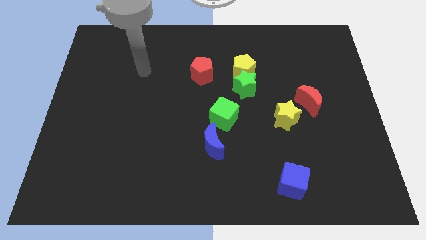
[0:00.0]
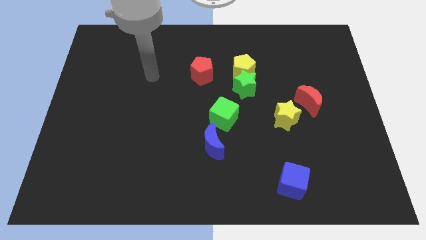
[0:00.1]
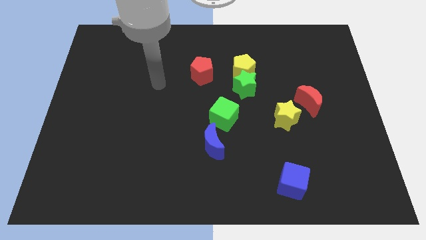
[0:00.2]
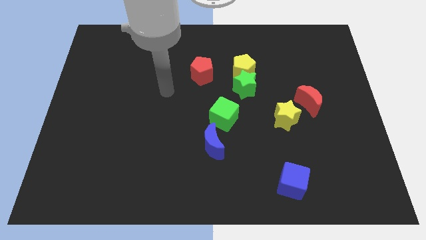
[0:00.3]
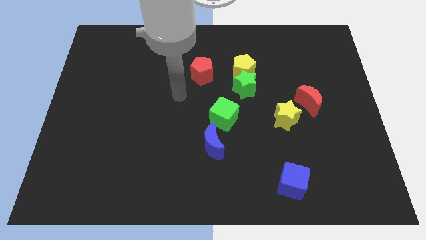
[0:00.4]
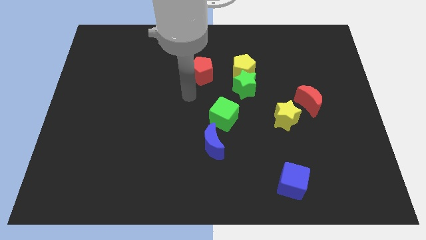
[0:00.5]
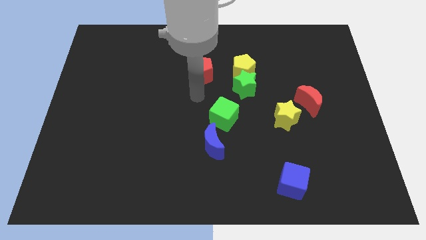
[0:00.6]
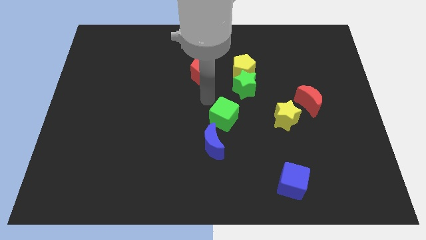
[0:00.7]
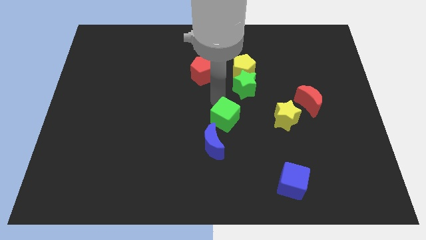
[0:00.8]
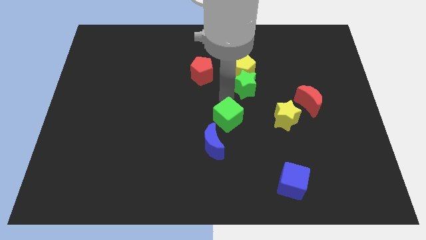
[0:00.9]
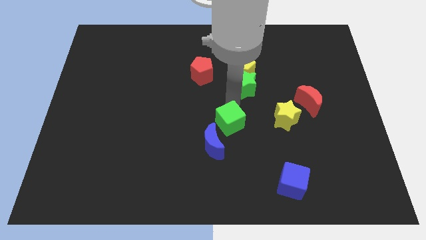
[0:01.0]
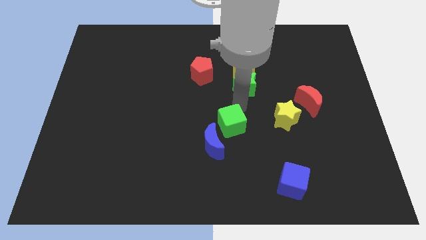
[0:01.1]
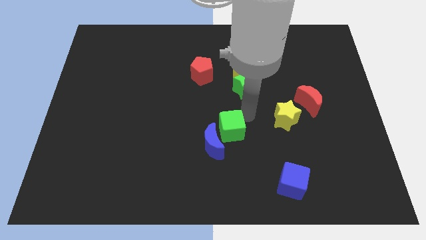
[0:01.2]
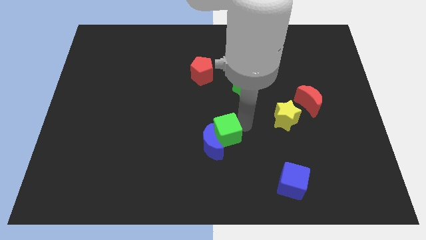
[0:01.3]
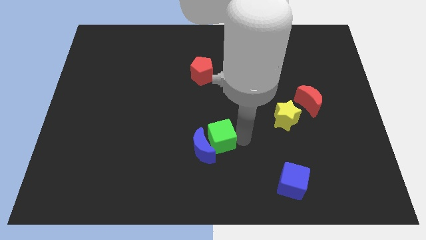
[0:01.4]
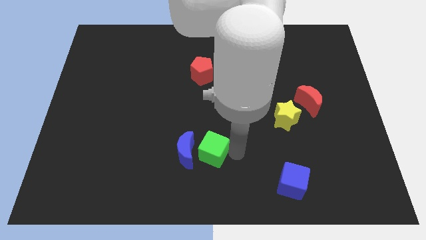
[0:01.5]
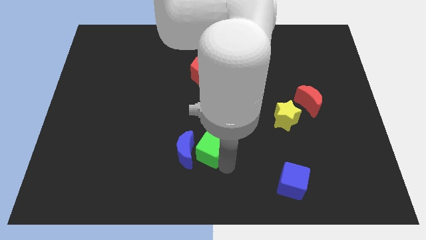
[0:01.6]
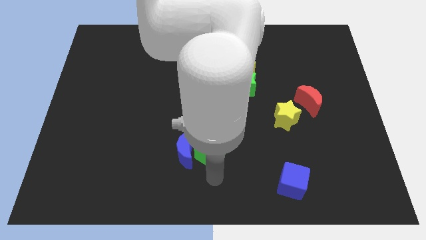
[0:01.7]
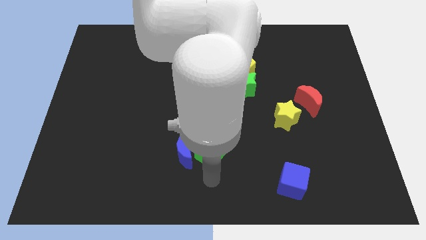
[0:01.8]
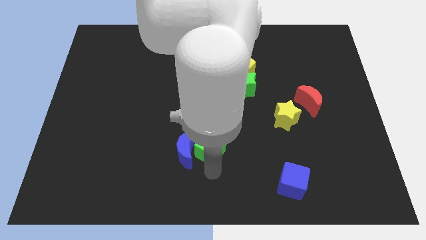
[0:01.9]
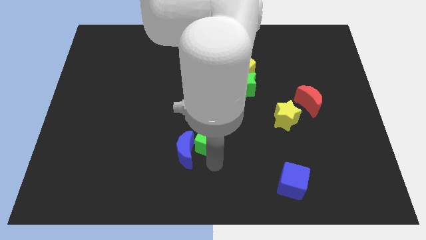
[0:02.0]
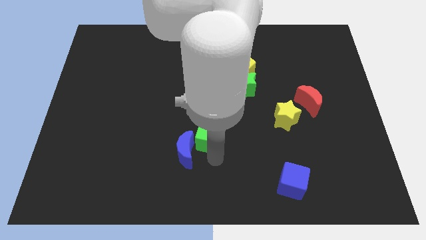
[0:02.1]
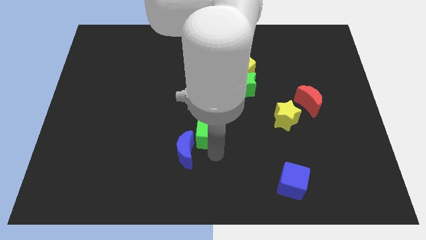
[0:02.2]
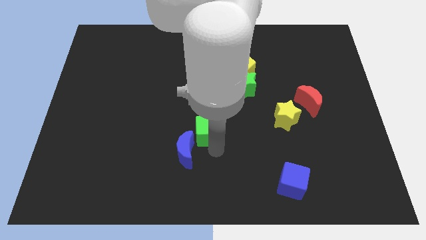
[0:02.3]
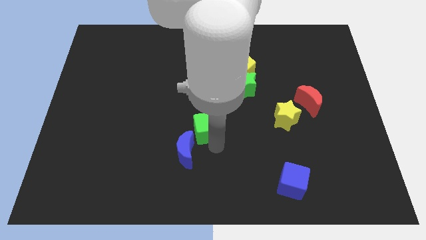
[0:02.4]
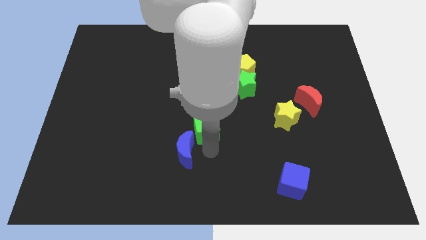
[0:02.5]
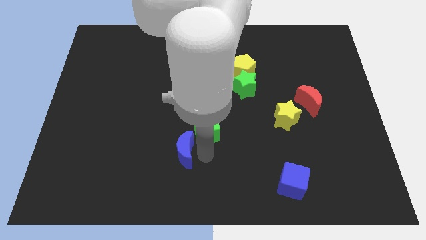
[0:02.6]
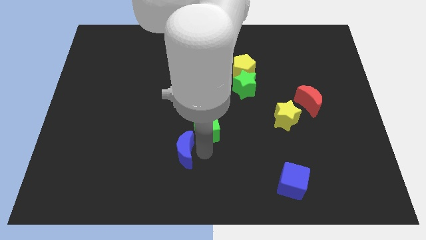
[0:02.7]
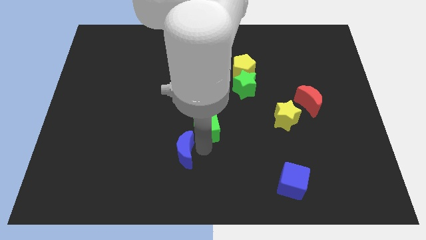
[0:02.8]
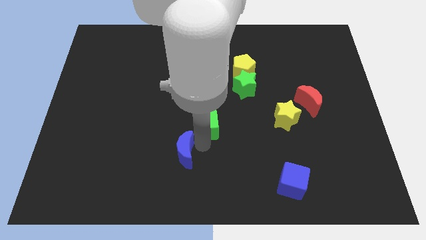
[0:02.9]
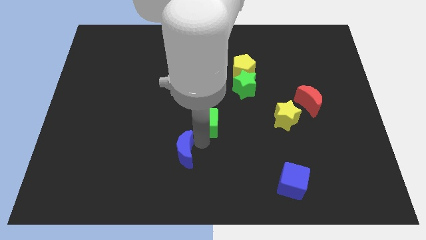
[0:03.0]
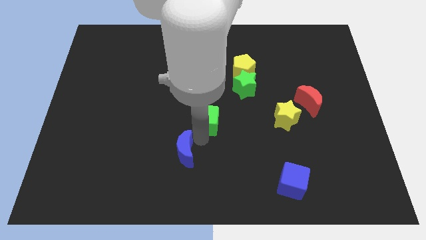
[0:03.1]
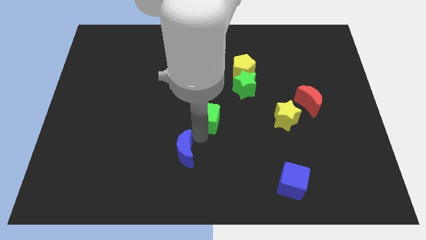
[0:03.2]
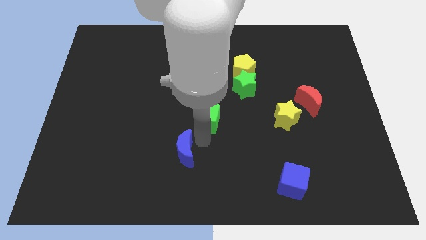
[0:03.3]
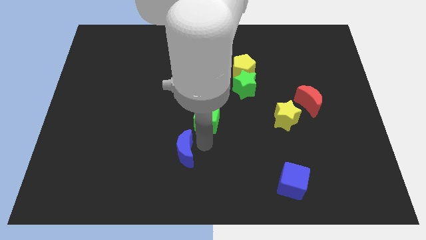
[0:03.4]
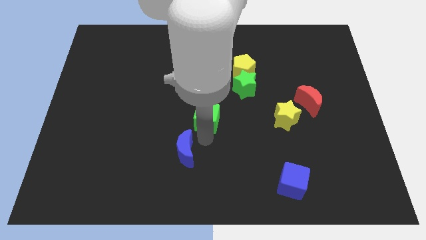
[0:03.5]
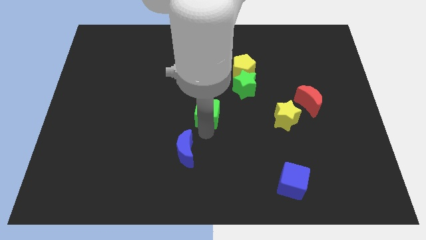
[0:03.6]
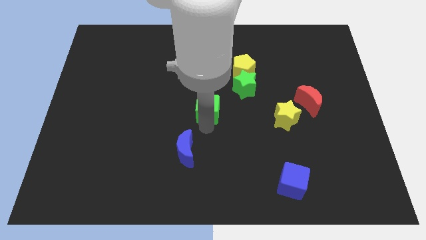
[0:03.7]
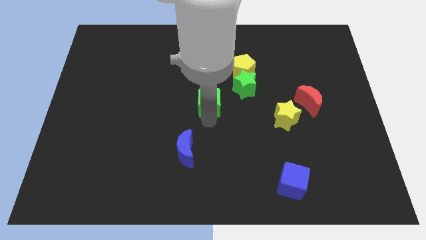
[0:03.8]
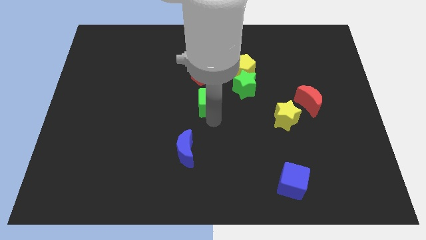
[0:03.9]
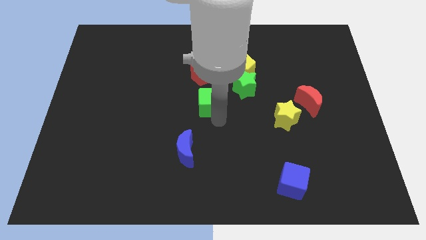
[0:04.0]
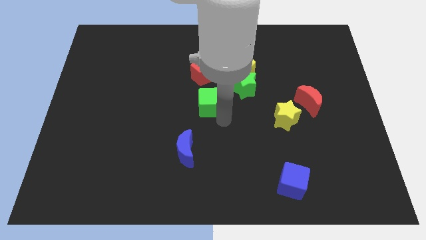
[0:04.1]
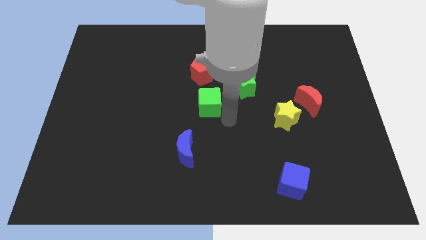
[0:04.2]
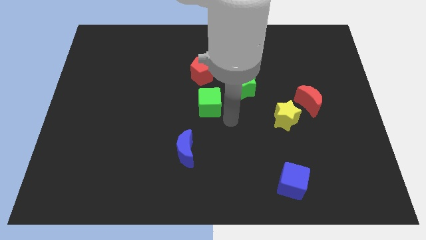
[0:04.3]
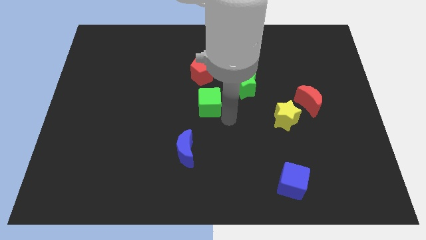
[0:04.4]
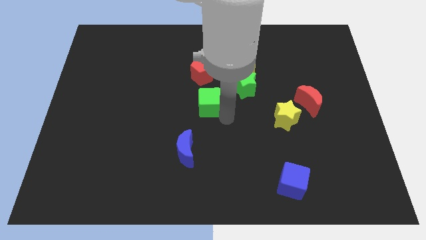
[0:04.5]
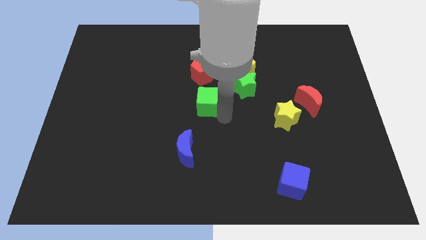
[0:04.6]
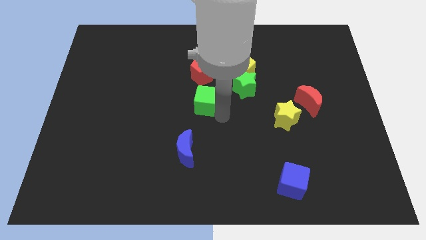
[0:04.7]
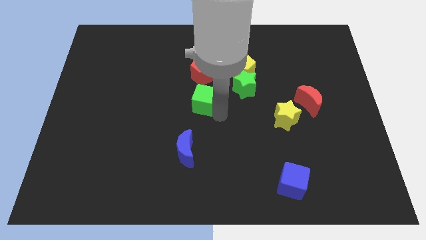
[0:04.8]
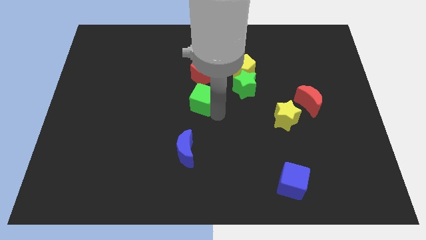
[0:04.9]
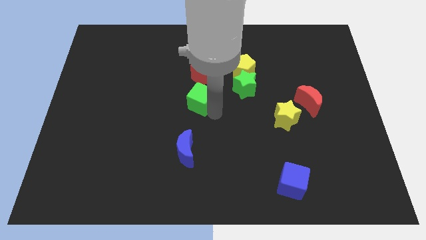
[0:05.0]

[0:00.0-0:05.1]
slide the green cube a little bit diagonally upwards and to the left

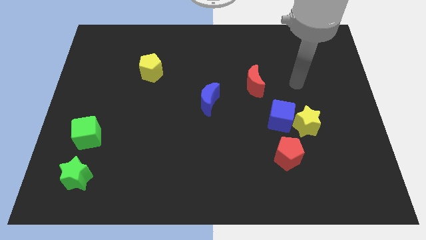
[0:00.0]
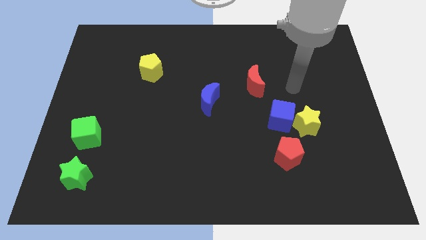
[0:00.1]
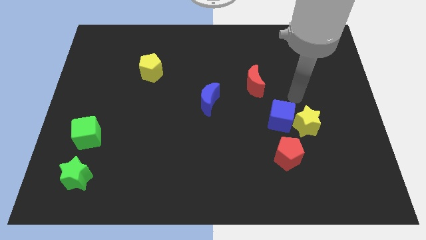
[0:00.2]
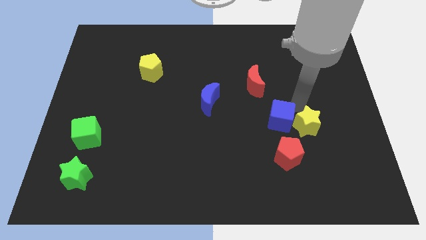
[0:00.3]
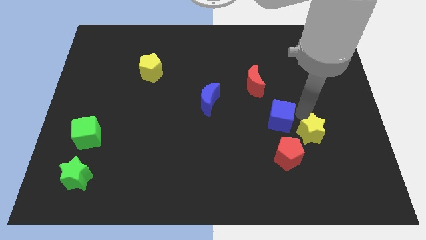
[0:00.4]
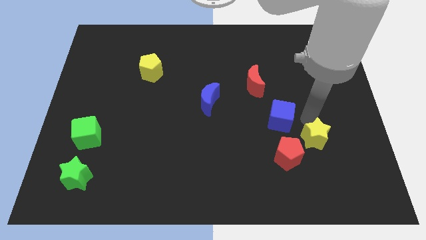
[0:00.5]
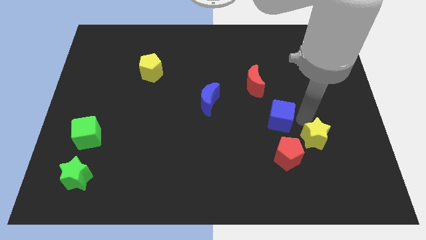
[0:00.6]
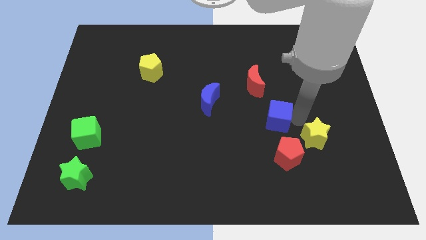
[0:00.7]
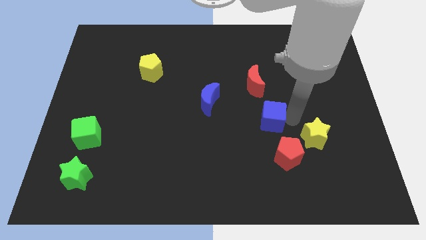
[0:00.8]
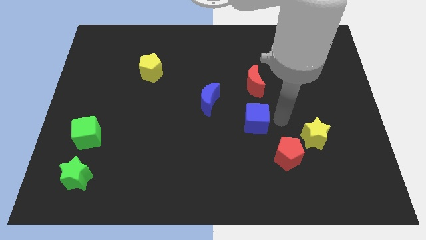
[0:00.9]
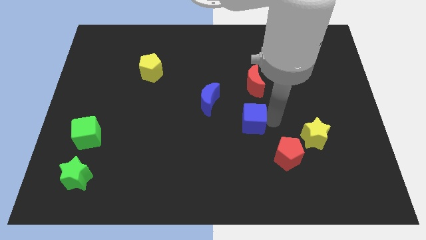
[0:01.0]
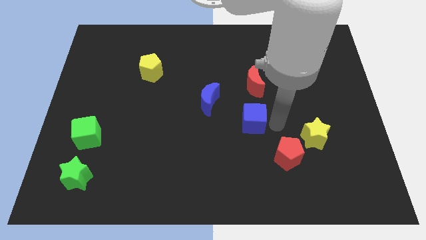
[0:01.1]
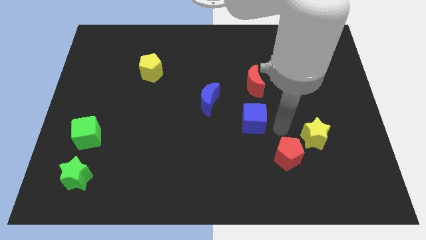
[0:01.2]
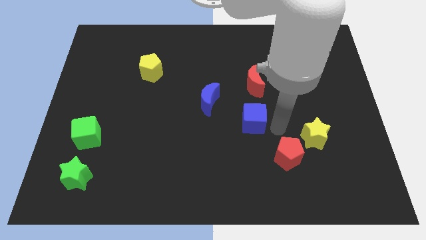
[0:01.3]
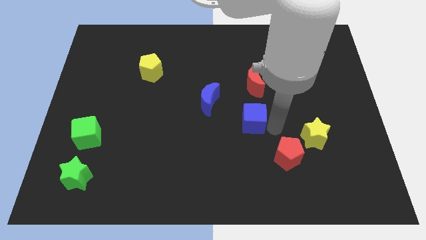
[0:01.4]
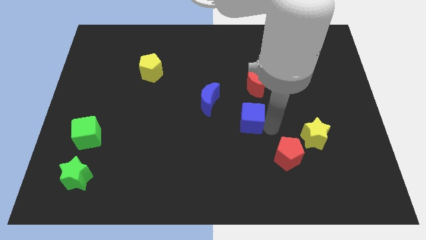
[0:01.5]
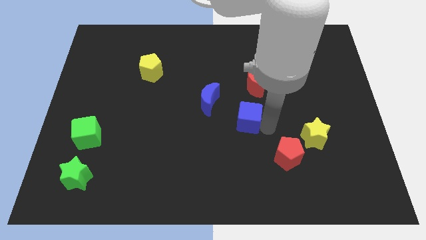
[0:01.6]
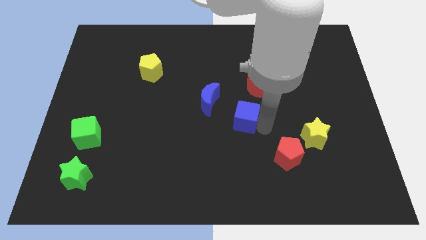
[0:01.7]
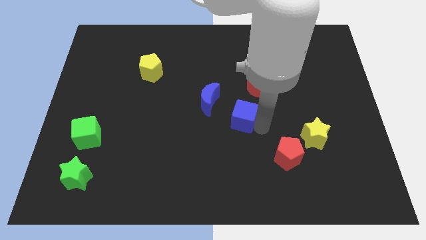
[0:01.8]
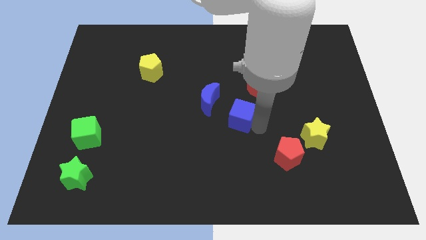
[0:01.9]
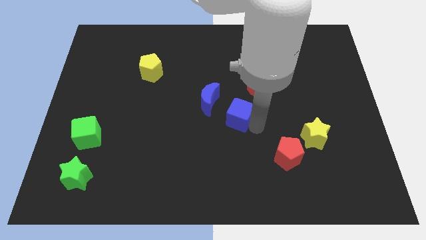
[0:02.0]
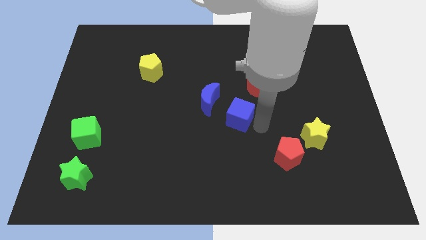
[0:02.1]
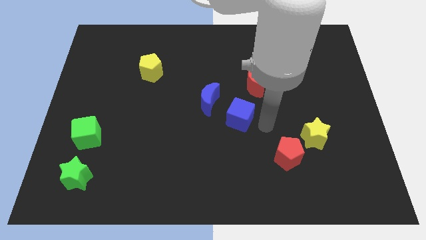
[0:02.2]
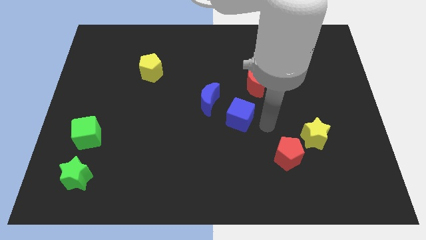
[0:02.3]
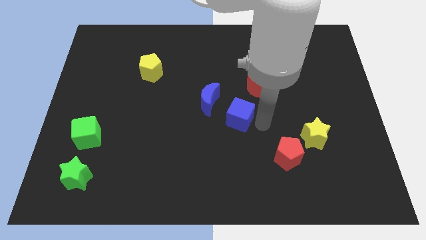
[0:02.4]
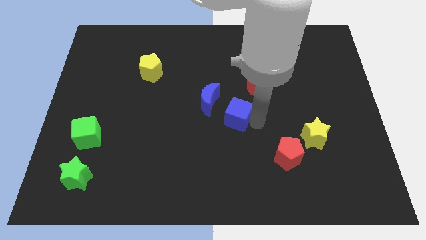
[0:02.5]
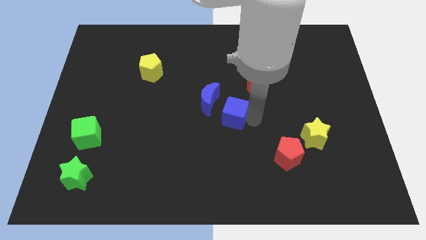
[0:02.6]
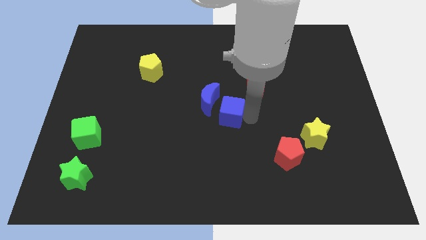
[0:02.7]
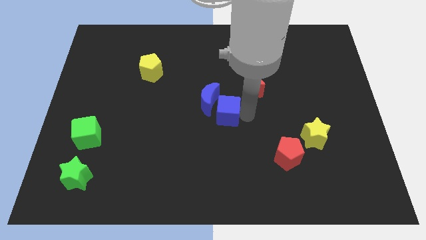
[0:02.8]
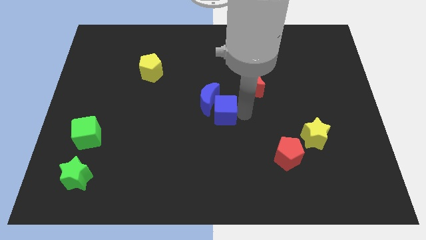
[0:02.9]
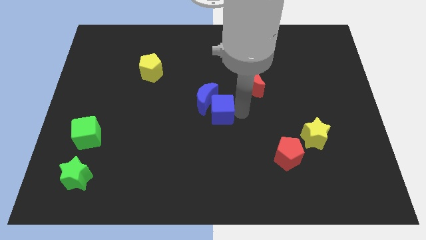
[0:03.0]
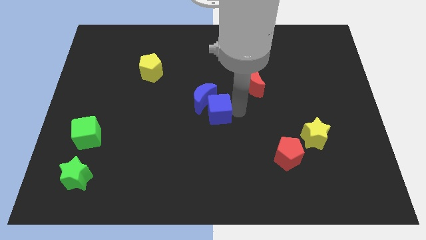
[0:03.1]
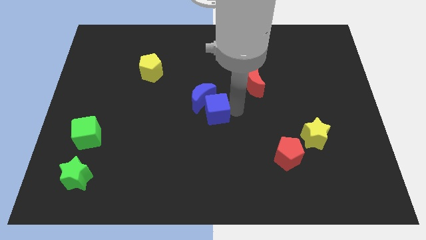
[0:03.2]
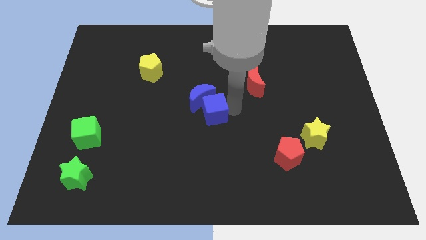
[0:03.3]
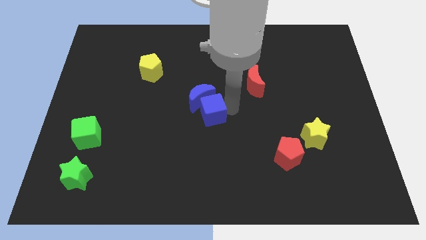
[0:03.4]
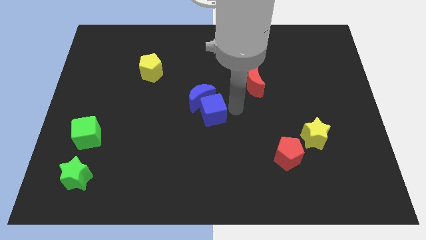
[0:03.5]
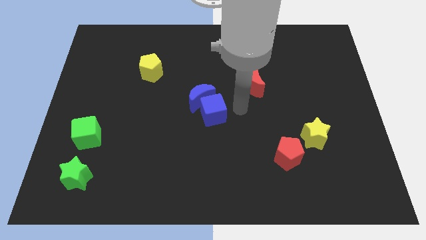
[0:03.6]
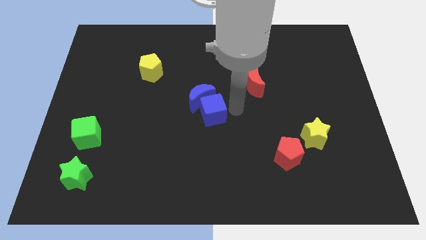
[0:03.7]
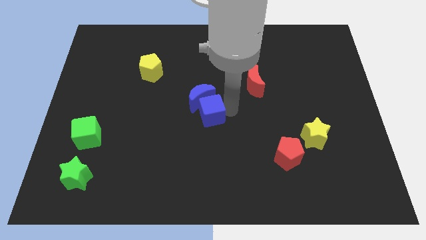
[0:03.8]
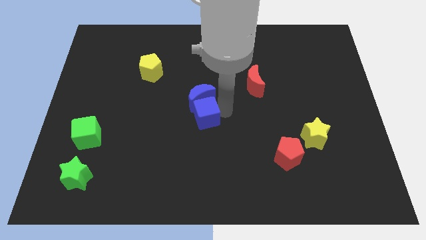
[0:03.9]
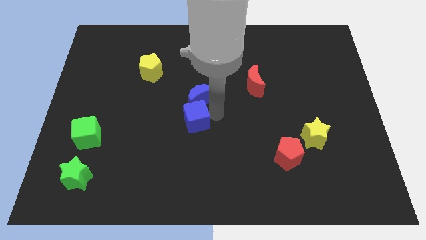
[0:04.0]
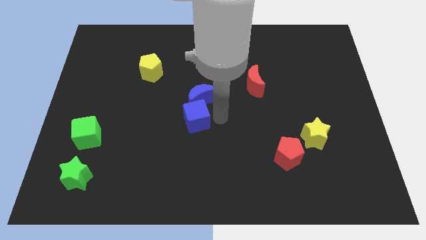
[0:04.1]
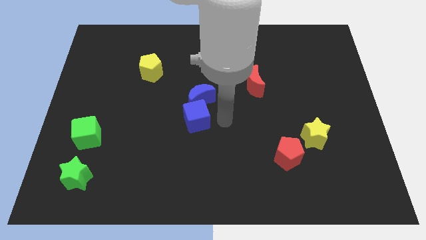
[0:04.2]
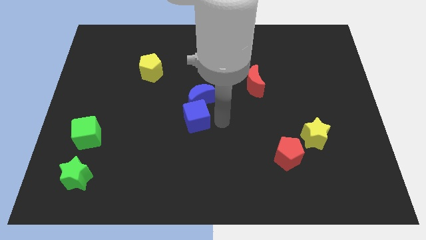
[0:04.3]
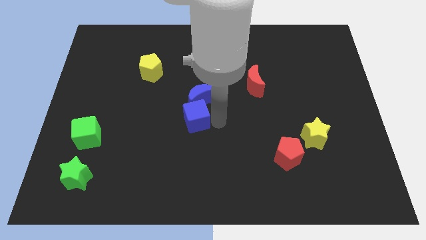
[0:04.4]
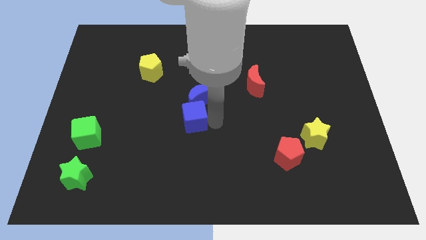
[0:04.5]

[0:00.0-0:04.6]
push the blue cube left
